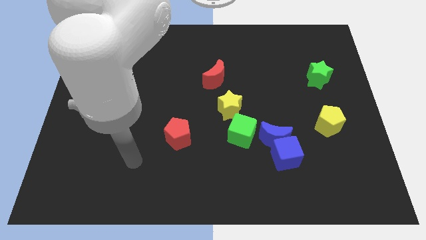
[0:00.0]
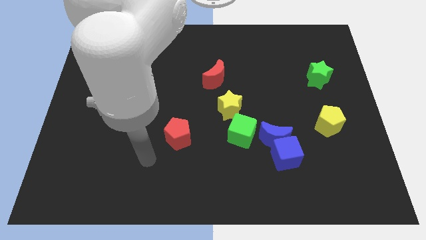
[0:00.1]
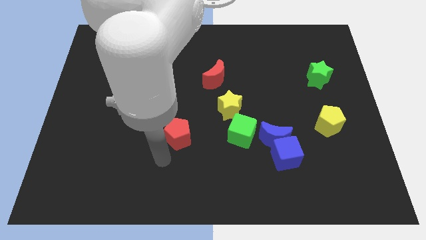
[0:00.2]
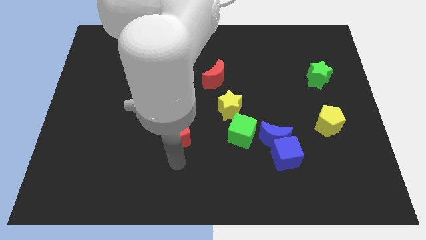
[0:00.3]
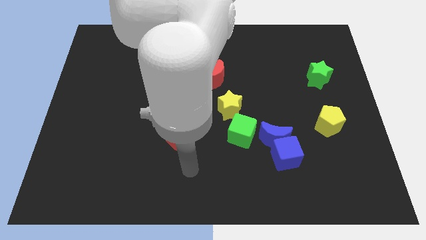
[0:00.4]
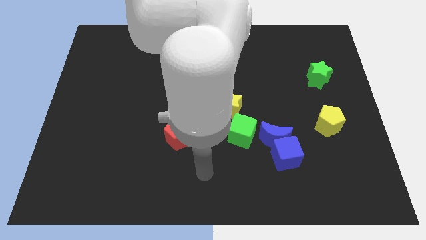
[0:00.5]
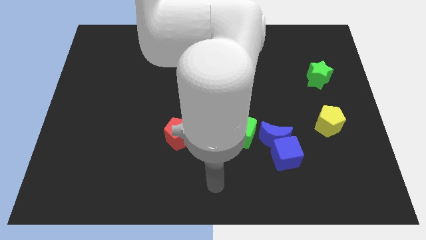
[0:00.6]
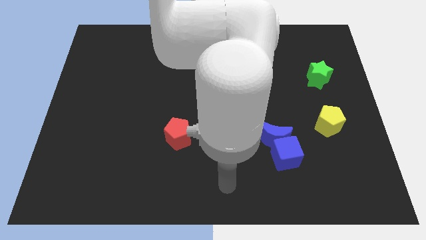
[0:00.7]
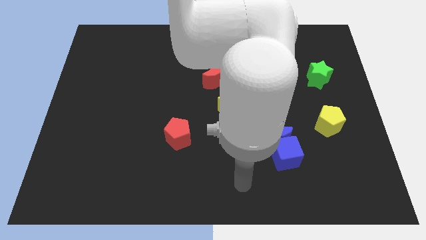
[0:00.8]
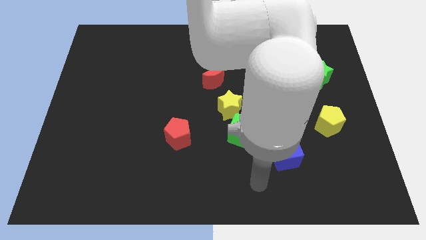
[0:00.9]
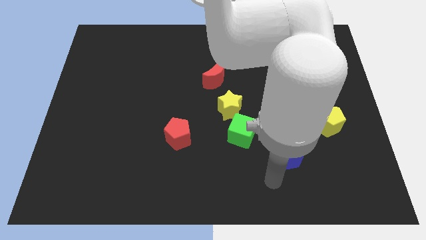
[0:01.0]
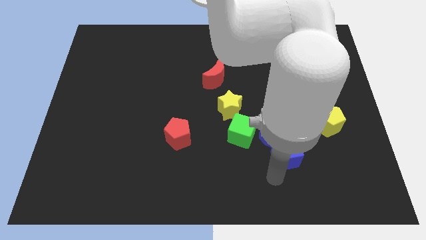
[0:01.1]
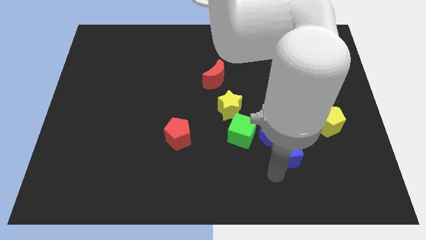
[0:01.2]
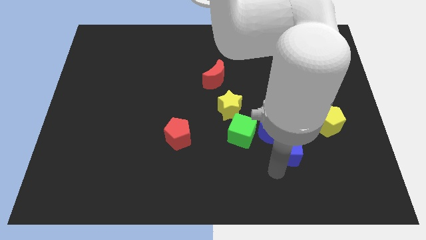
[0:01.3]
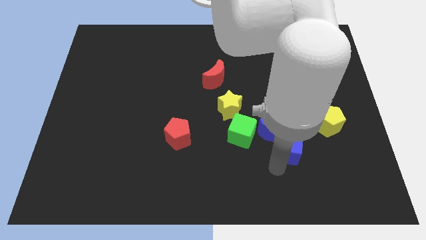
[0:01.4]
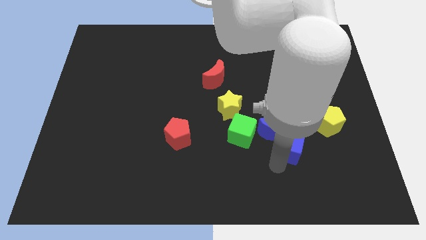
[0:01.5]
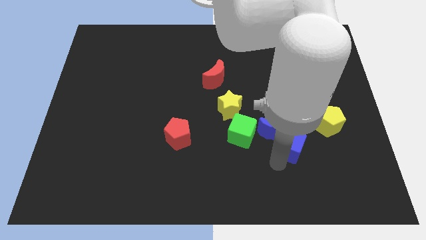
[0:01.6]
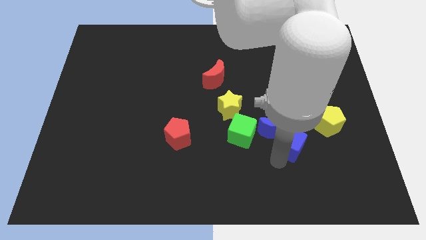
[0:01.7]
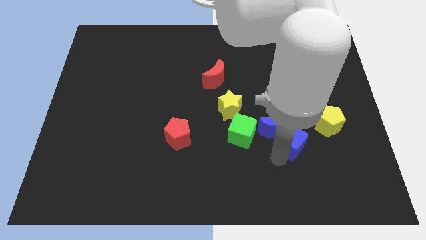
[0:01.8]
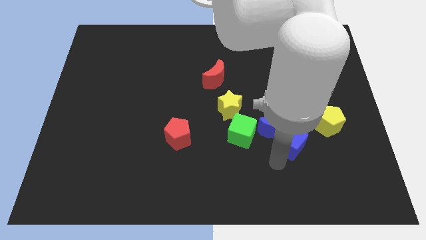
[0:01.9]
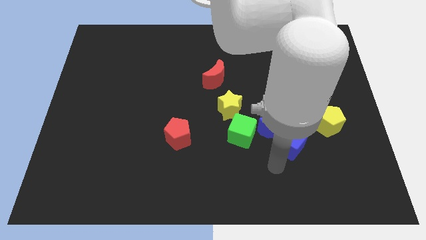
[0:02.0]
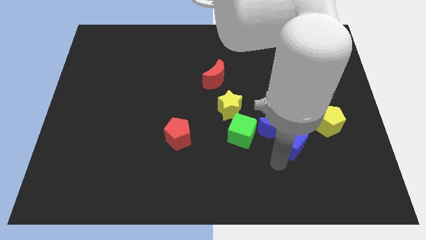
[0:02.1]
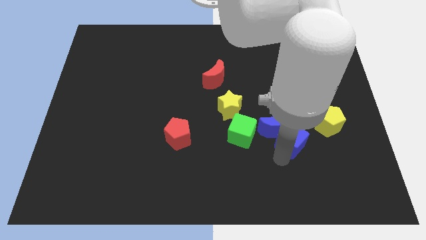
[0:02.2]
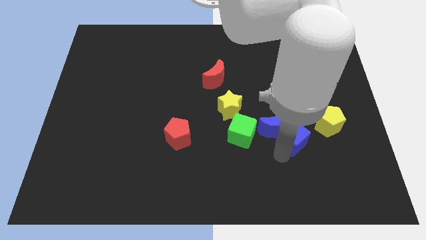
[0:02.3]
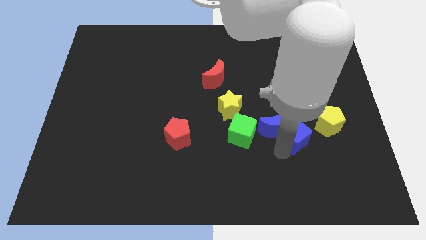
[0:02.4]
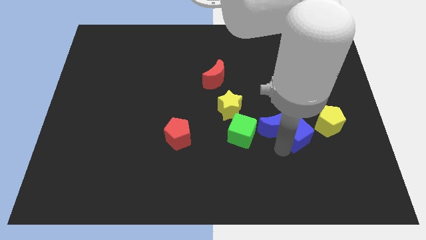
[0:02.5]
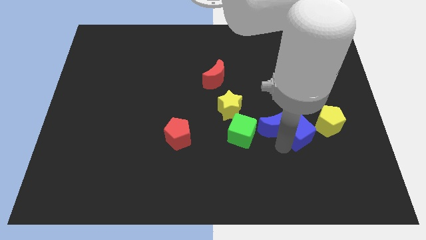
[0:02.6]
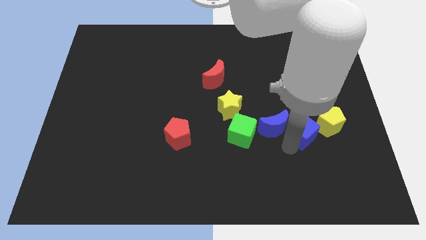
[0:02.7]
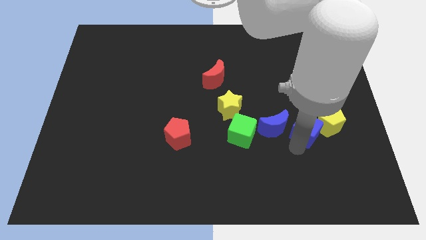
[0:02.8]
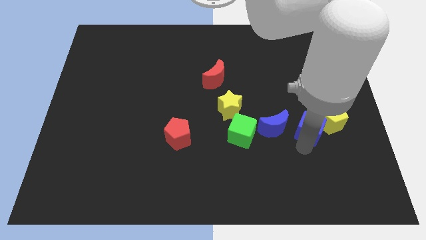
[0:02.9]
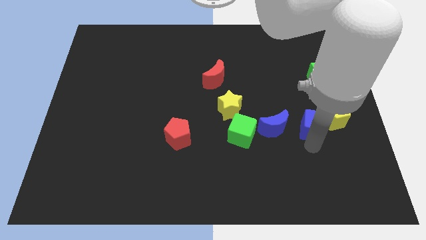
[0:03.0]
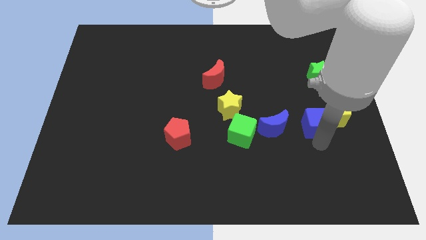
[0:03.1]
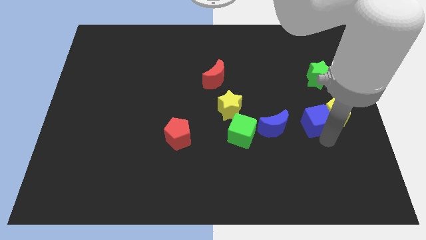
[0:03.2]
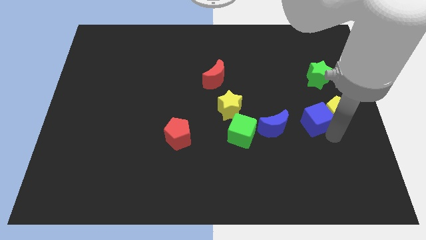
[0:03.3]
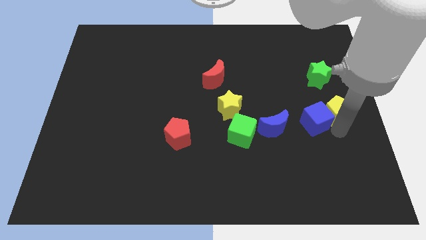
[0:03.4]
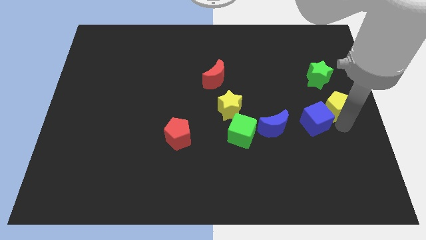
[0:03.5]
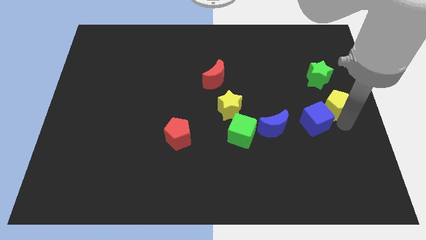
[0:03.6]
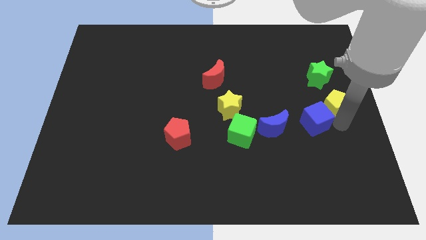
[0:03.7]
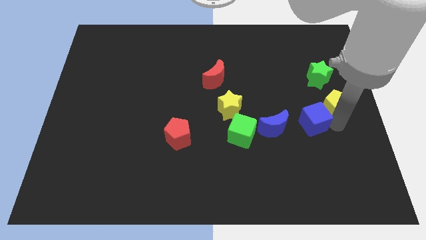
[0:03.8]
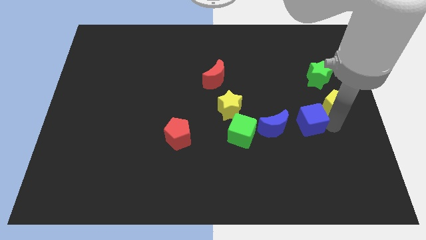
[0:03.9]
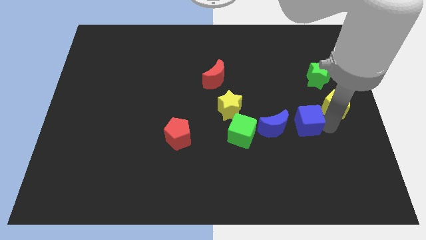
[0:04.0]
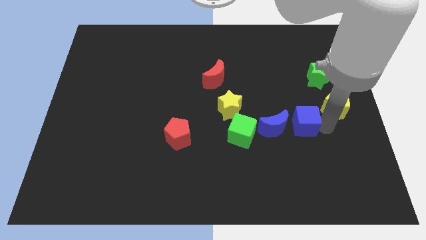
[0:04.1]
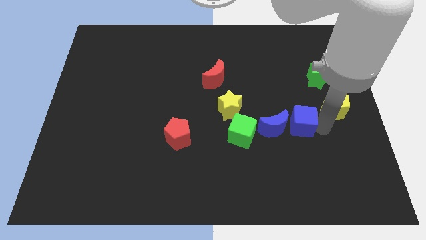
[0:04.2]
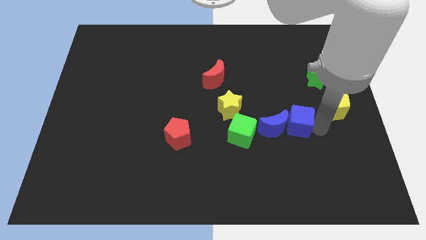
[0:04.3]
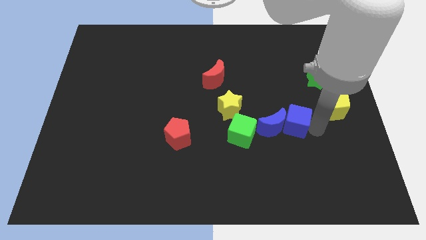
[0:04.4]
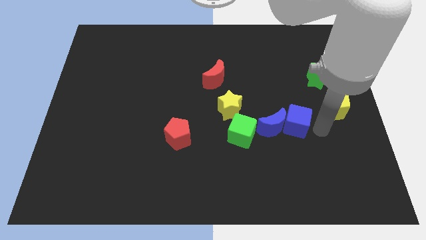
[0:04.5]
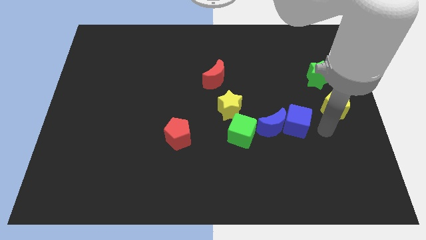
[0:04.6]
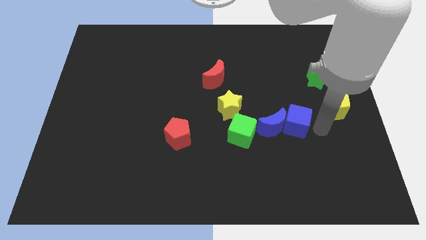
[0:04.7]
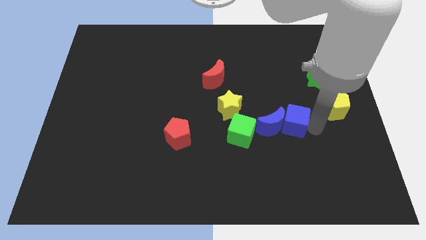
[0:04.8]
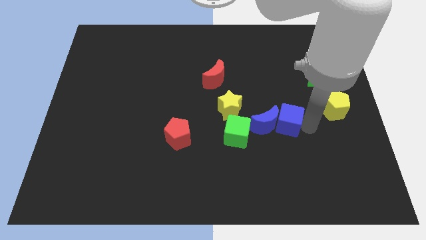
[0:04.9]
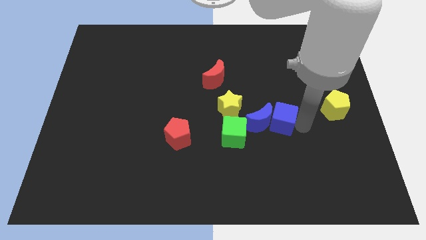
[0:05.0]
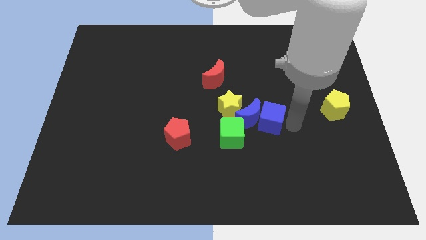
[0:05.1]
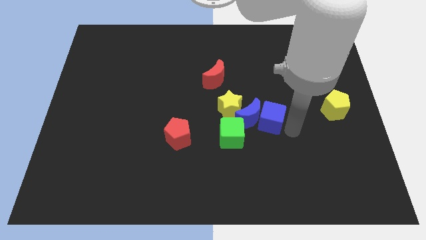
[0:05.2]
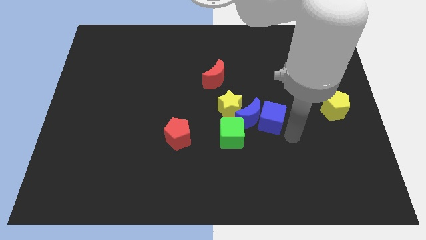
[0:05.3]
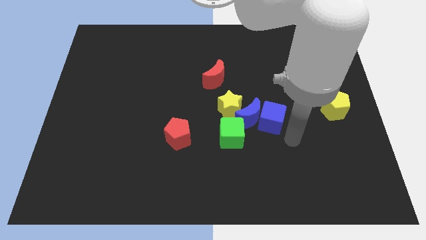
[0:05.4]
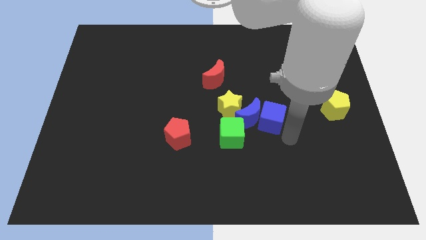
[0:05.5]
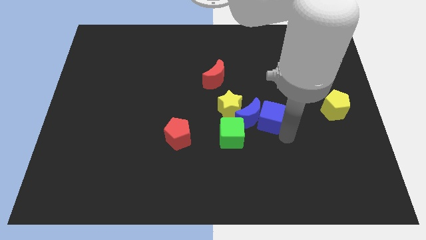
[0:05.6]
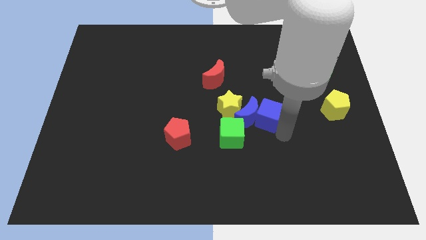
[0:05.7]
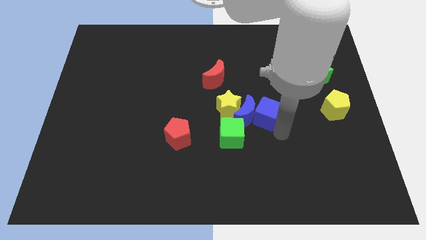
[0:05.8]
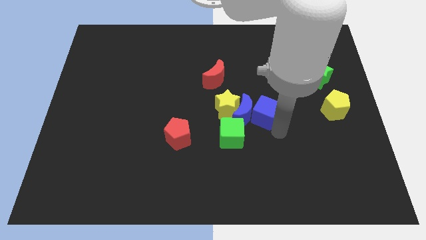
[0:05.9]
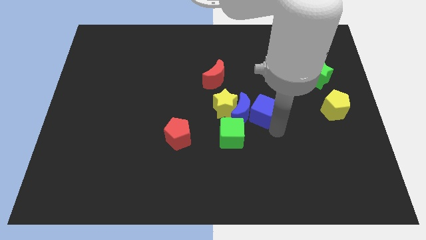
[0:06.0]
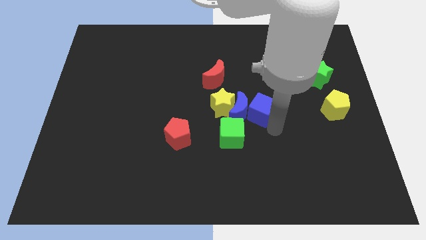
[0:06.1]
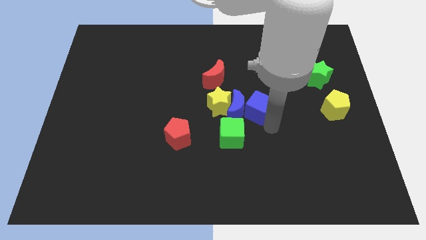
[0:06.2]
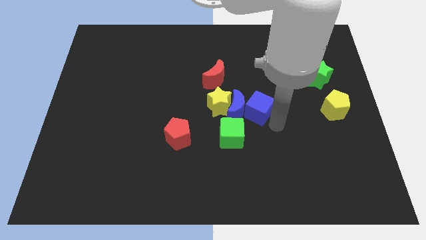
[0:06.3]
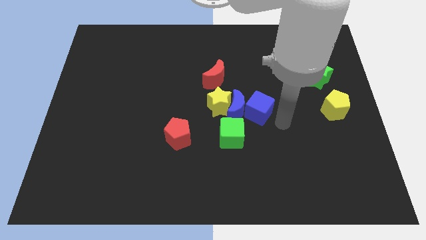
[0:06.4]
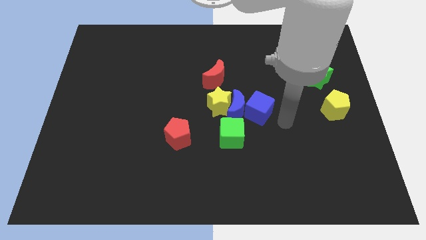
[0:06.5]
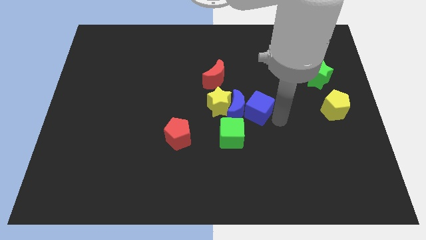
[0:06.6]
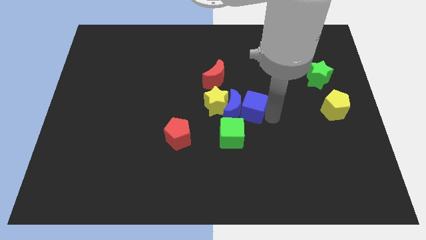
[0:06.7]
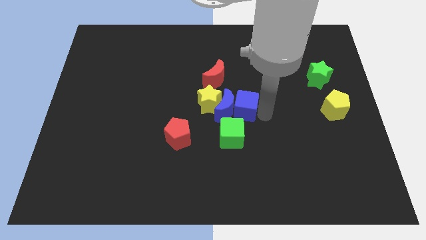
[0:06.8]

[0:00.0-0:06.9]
slide the blue cube to the top side of the green cube
